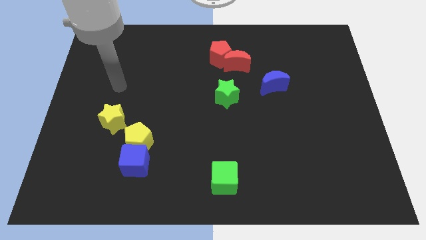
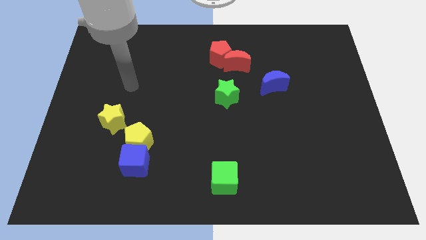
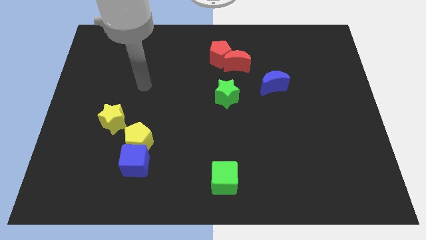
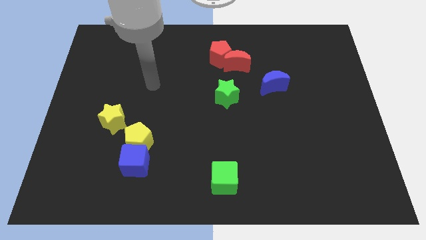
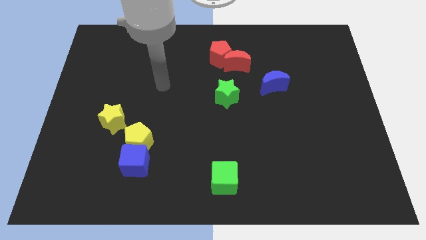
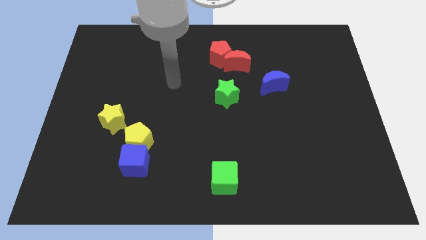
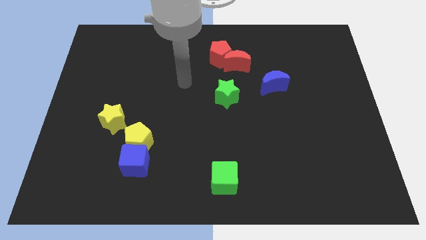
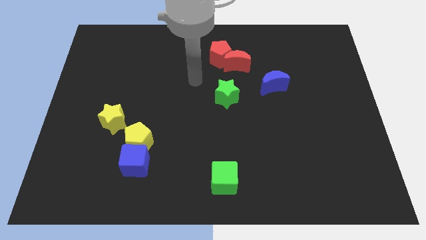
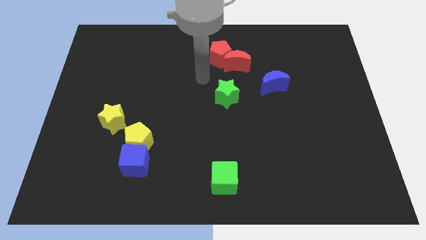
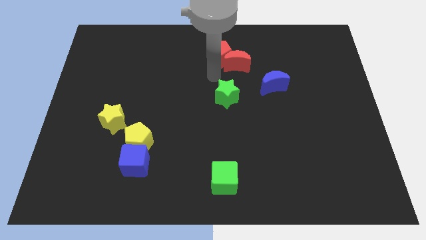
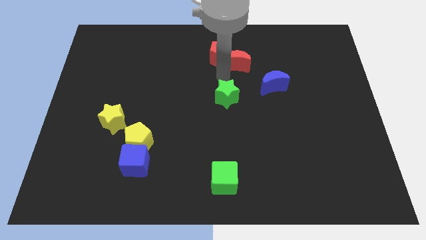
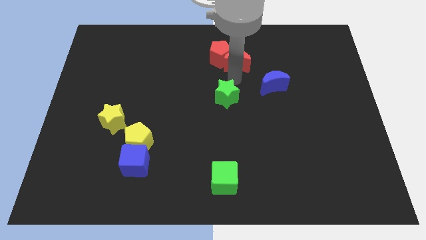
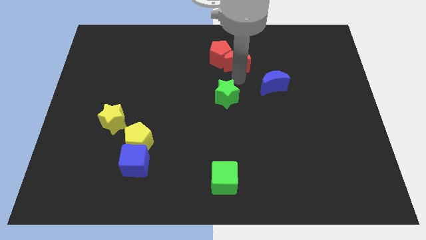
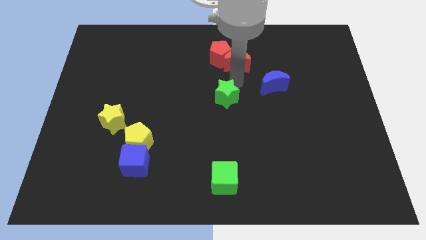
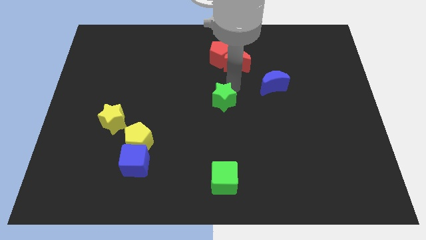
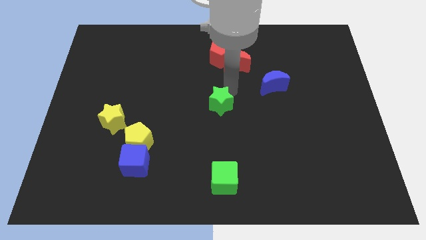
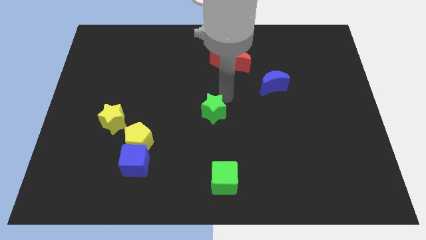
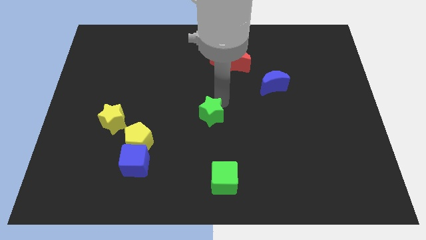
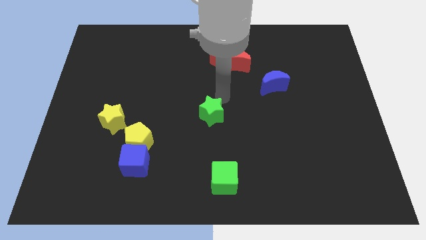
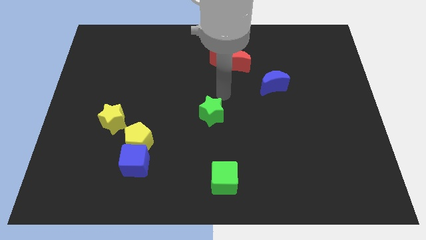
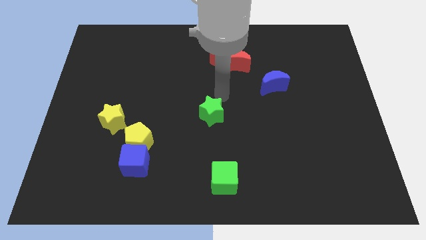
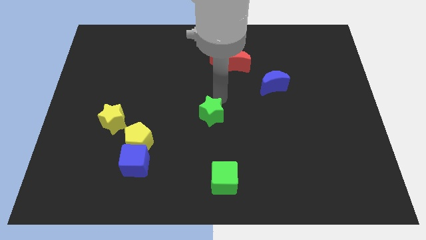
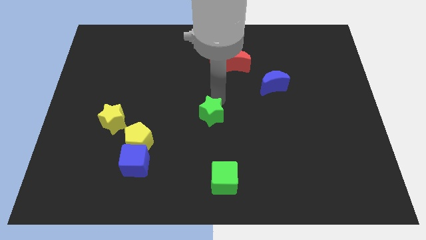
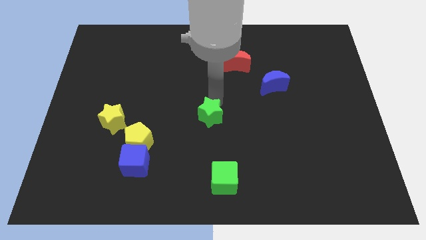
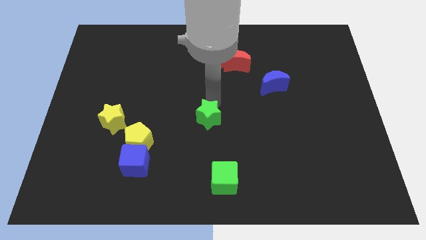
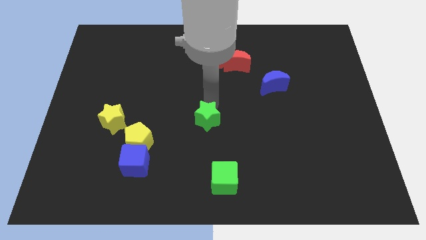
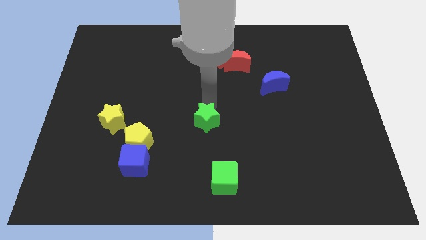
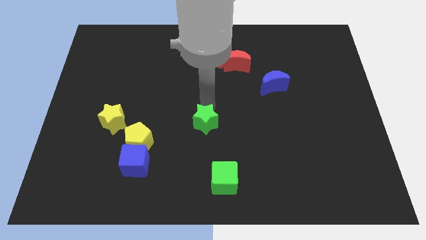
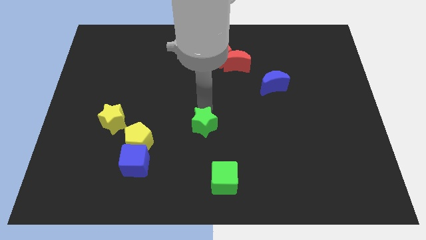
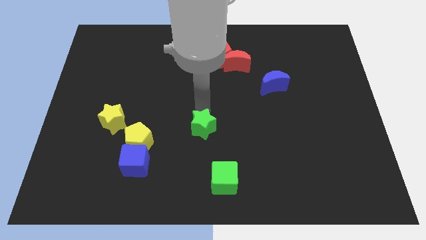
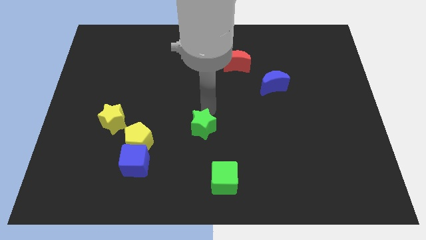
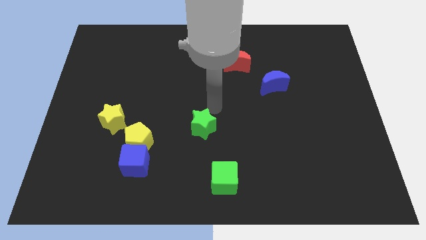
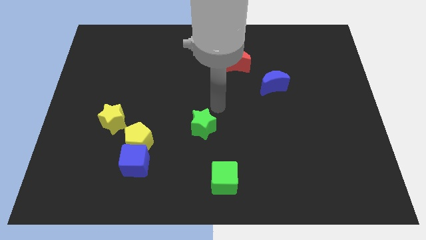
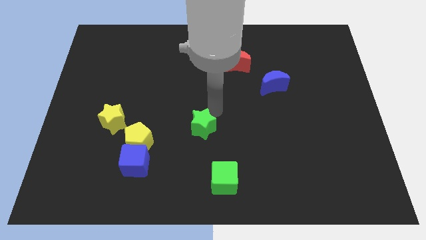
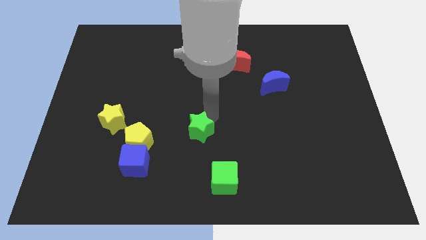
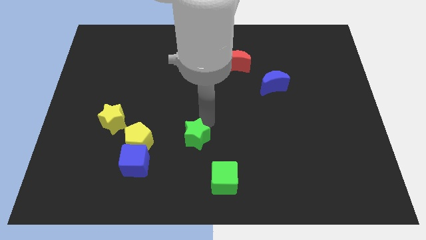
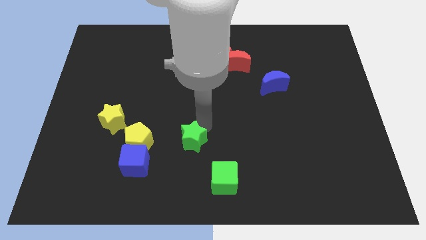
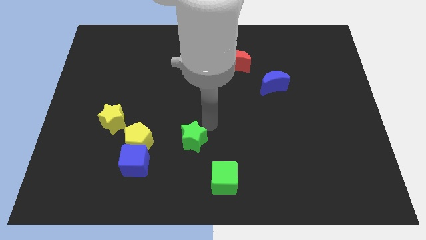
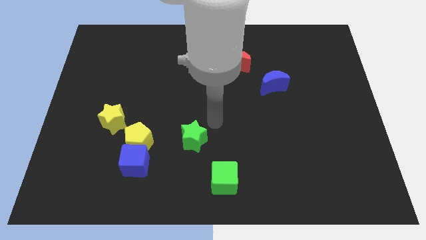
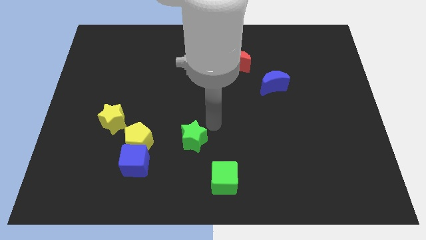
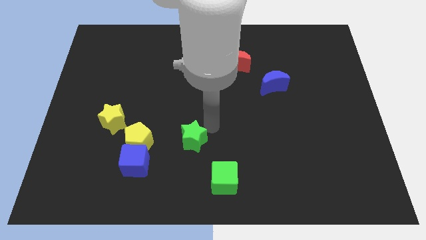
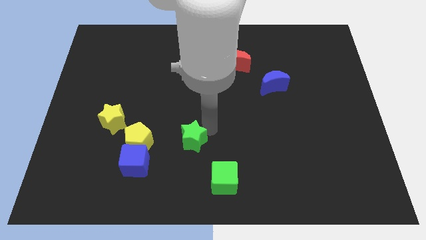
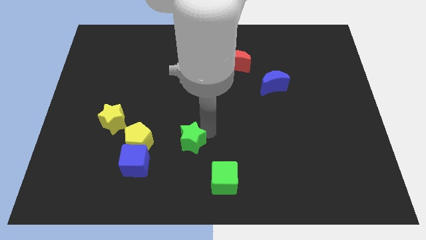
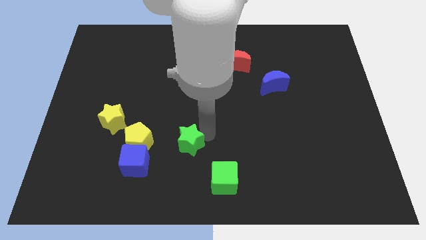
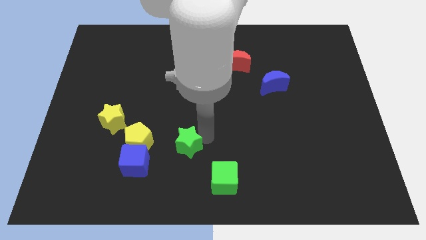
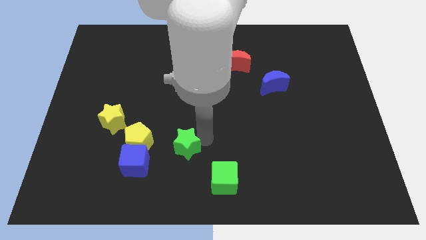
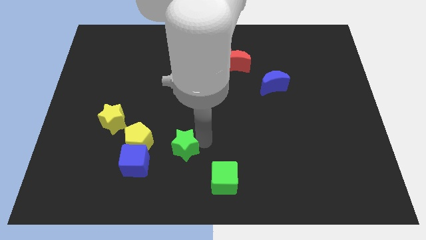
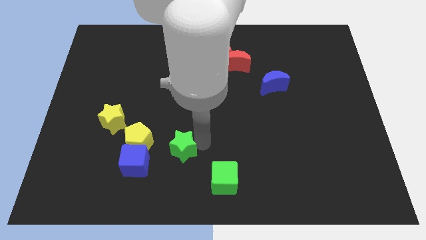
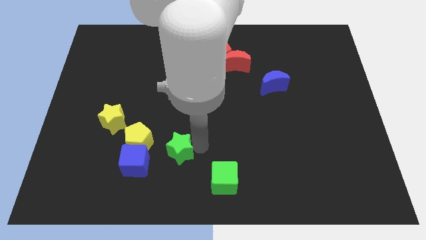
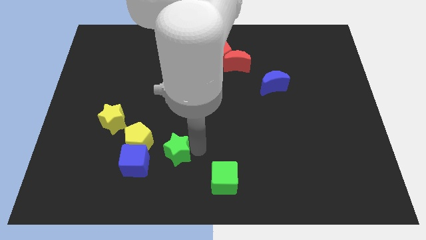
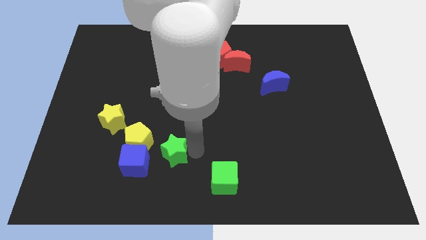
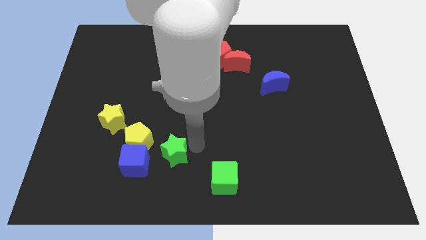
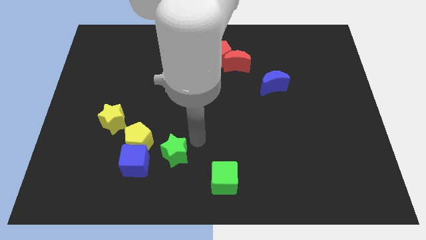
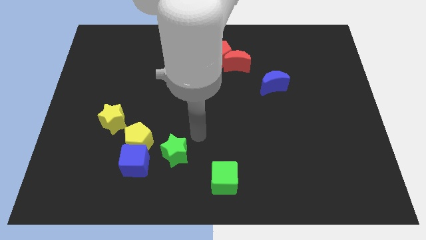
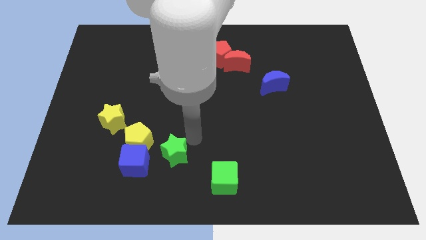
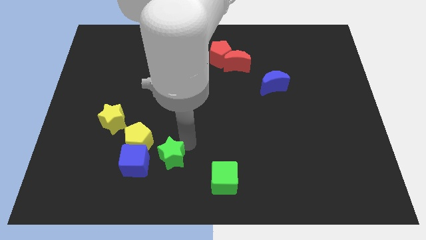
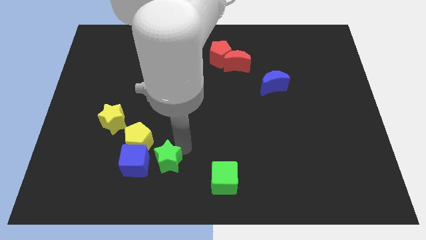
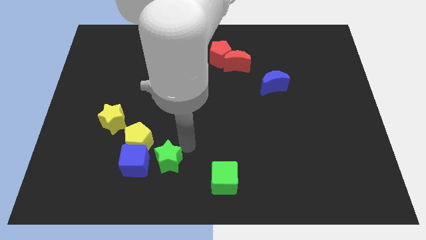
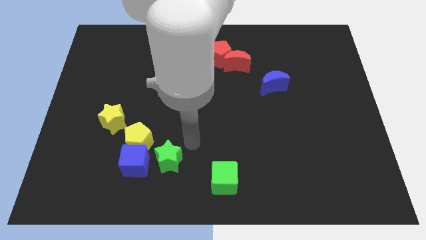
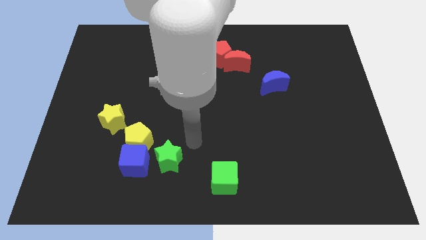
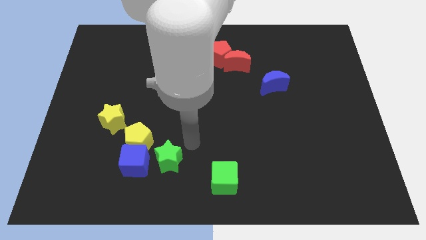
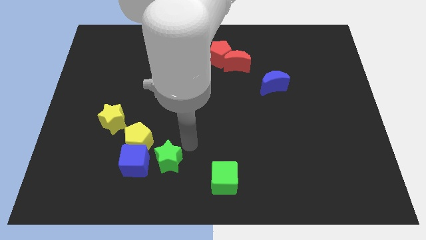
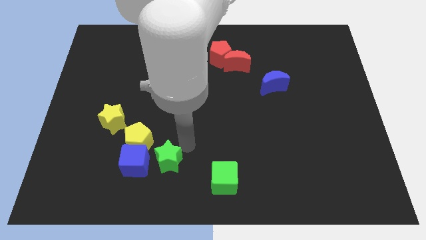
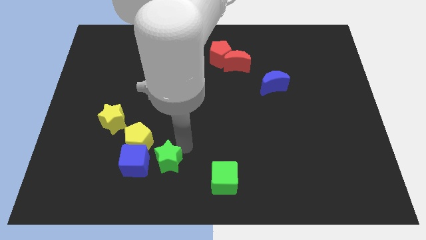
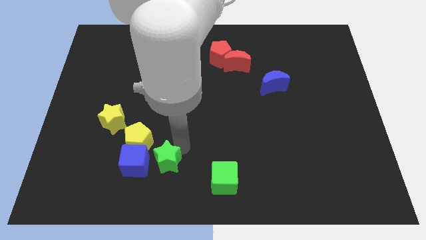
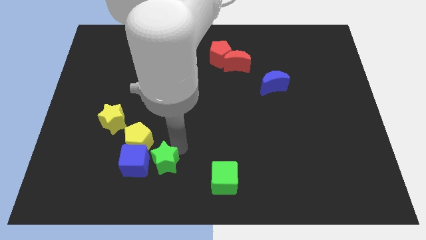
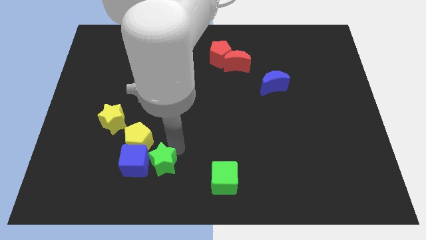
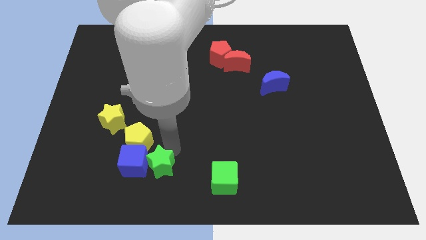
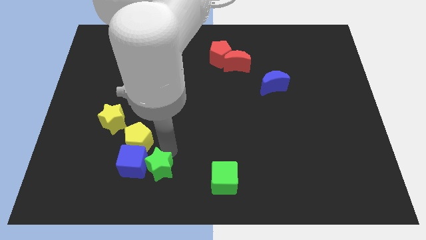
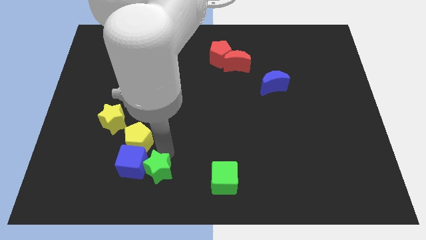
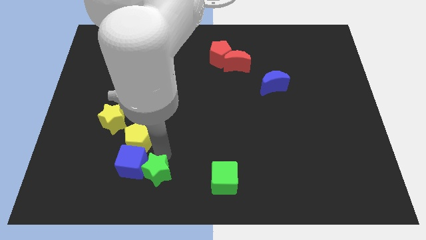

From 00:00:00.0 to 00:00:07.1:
slide the green star below the yellow pentagon
